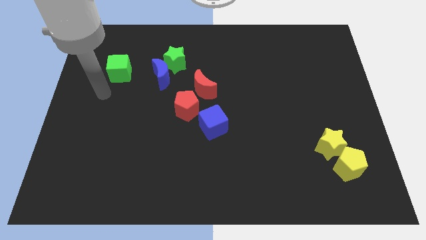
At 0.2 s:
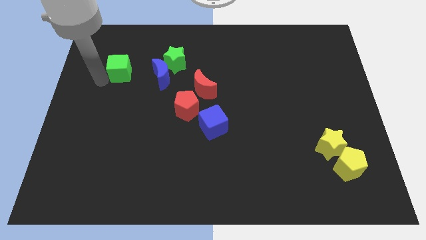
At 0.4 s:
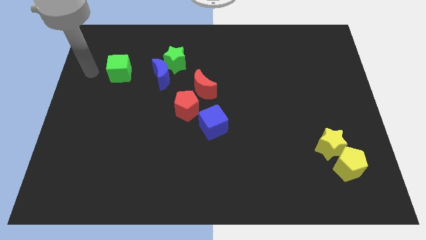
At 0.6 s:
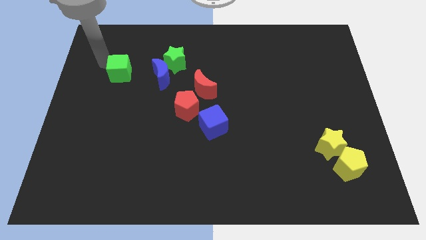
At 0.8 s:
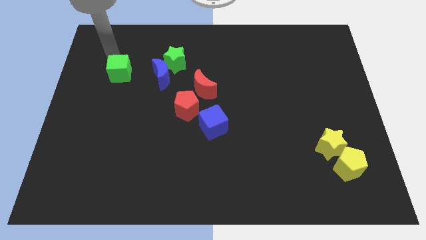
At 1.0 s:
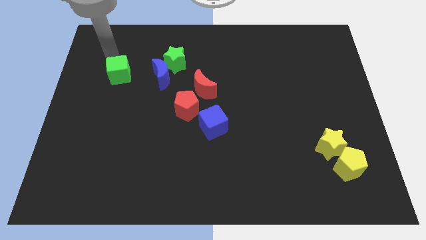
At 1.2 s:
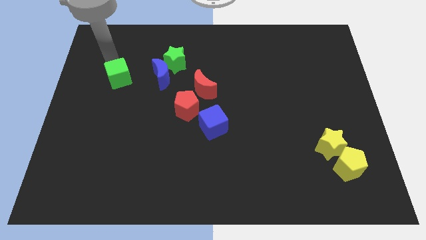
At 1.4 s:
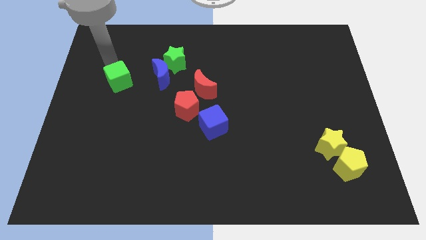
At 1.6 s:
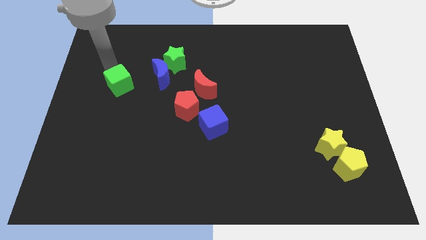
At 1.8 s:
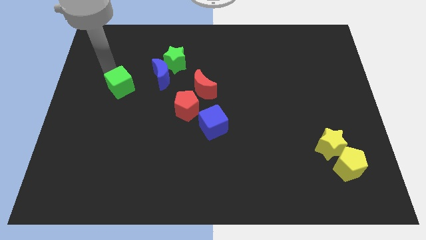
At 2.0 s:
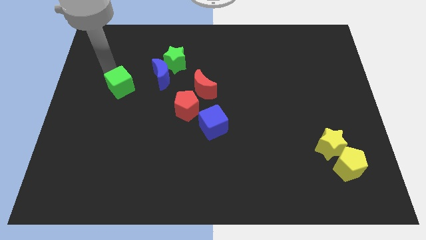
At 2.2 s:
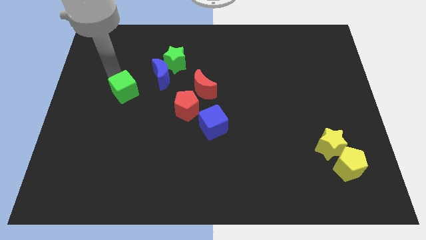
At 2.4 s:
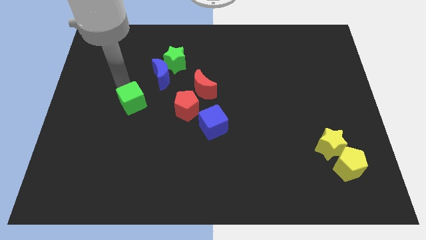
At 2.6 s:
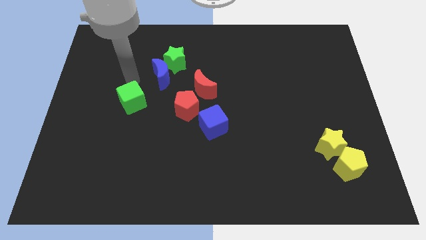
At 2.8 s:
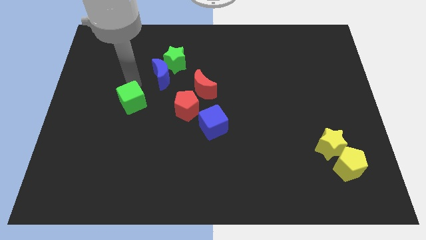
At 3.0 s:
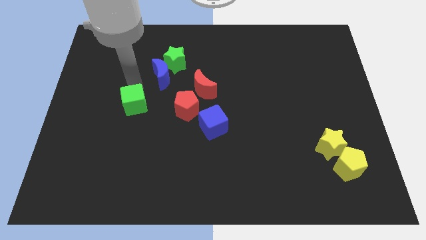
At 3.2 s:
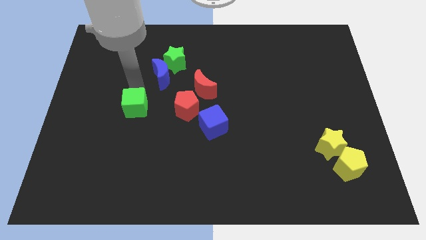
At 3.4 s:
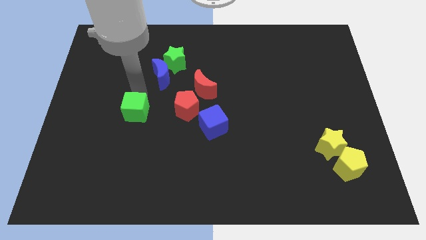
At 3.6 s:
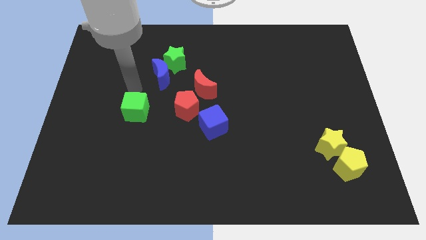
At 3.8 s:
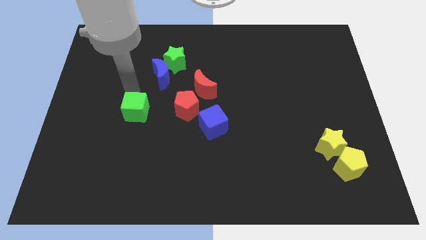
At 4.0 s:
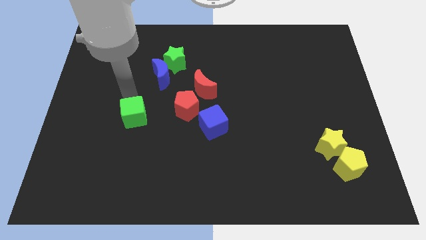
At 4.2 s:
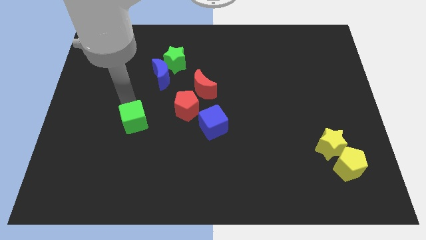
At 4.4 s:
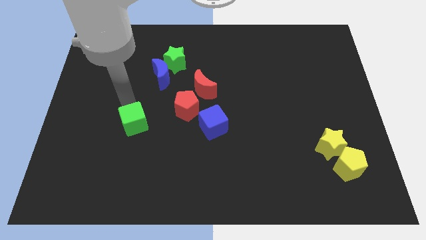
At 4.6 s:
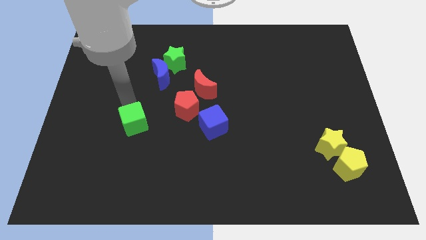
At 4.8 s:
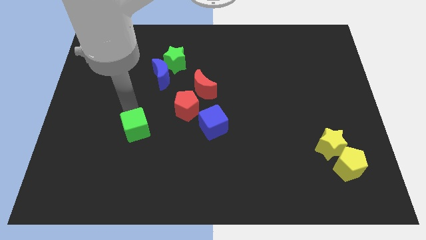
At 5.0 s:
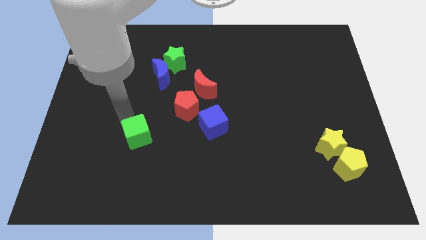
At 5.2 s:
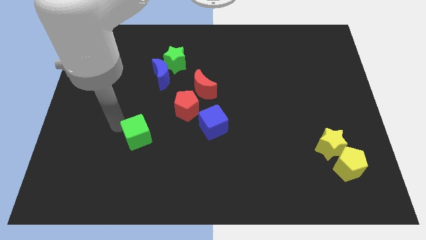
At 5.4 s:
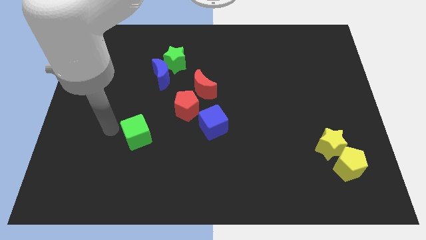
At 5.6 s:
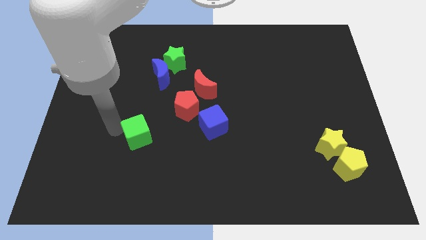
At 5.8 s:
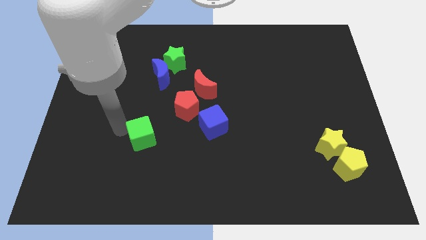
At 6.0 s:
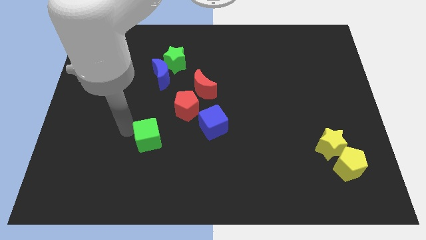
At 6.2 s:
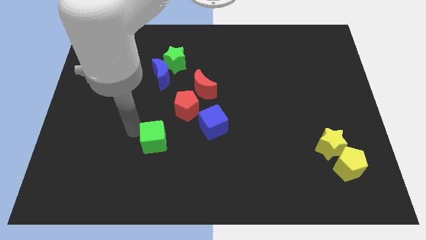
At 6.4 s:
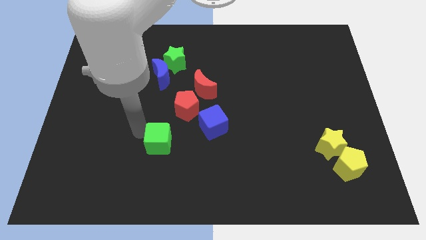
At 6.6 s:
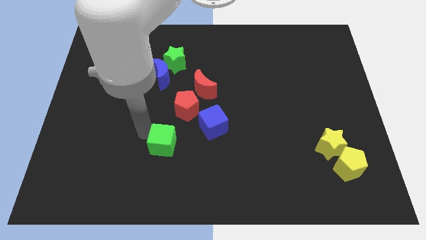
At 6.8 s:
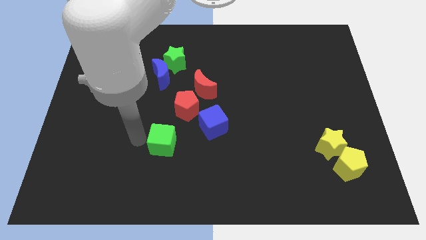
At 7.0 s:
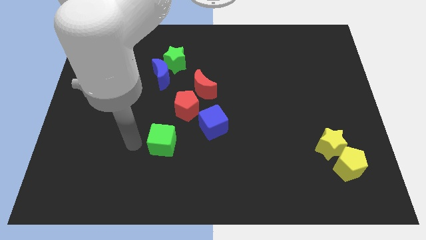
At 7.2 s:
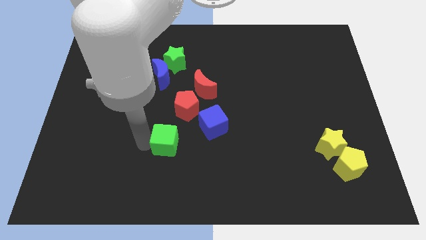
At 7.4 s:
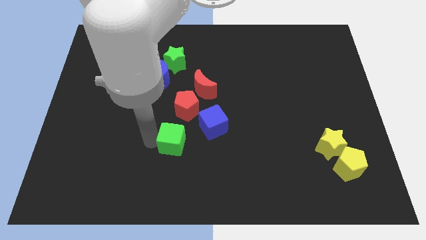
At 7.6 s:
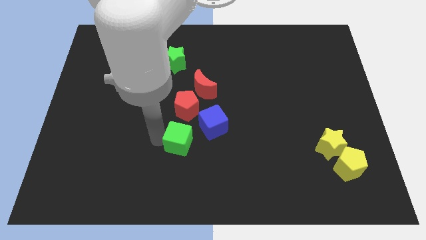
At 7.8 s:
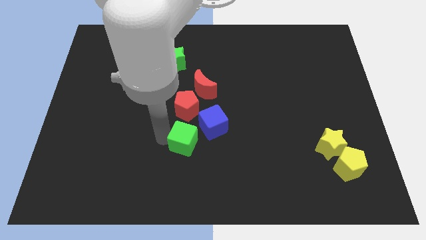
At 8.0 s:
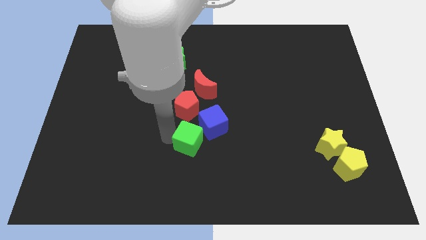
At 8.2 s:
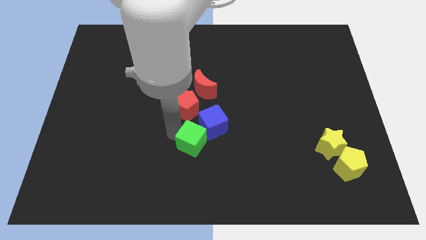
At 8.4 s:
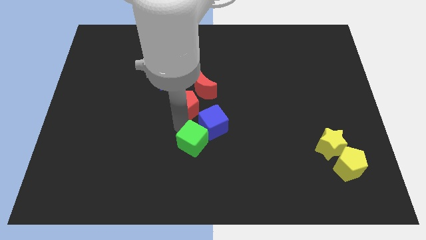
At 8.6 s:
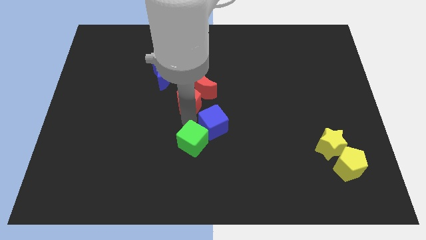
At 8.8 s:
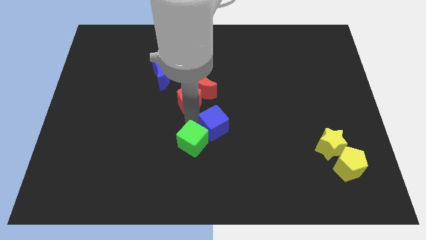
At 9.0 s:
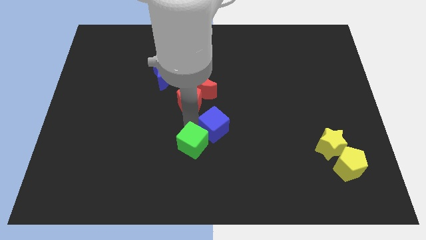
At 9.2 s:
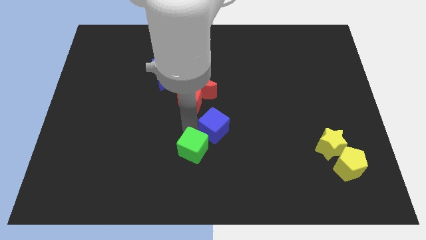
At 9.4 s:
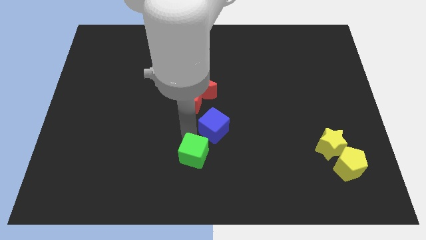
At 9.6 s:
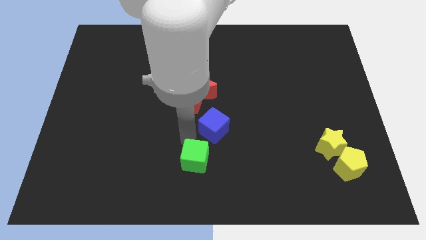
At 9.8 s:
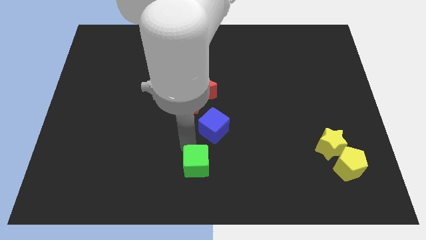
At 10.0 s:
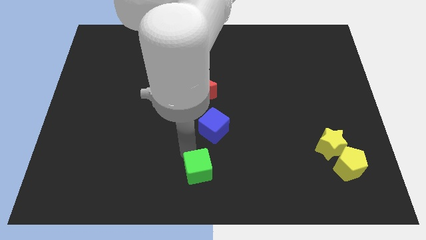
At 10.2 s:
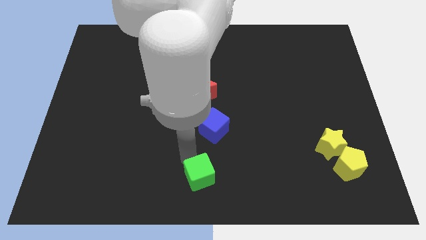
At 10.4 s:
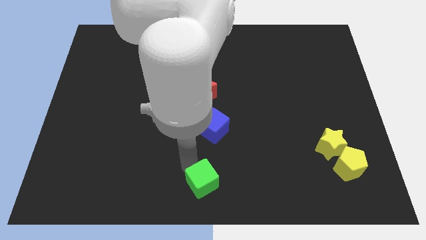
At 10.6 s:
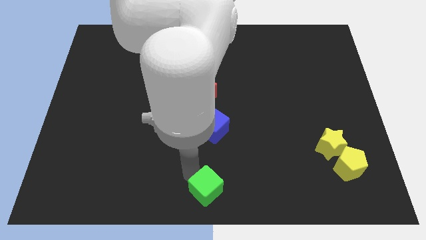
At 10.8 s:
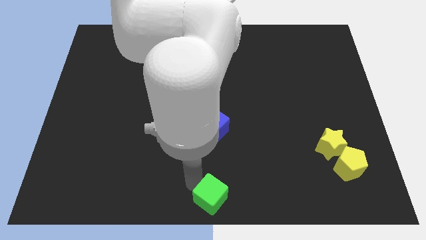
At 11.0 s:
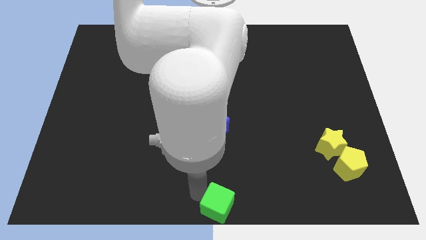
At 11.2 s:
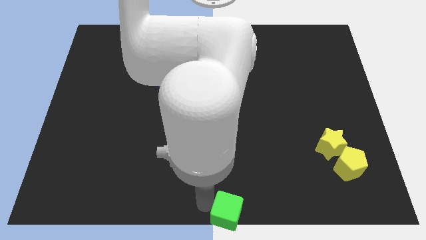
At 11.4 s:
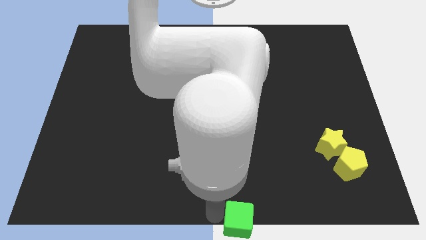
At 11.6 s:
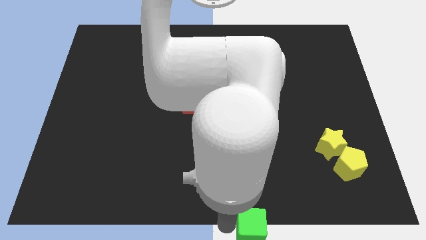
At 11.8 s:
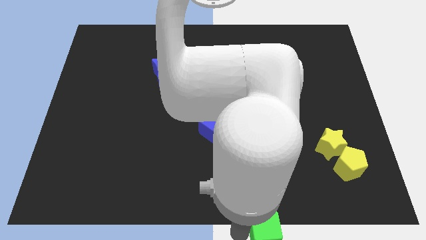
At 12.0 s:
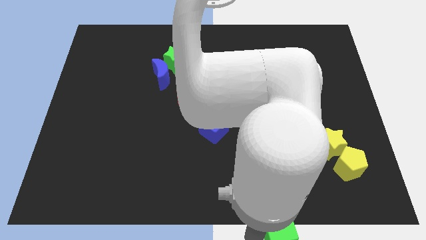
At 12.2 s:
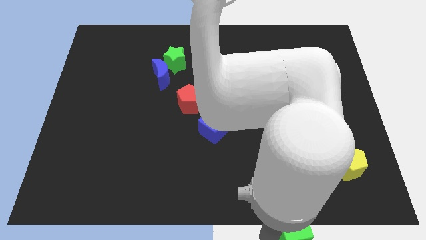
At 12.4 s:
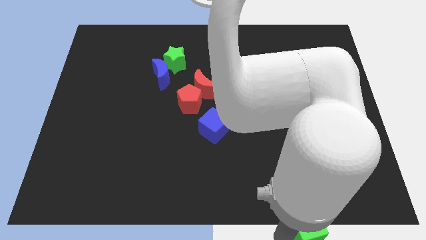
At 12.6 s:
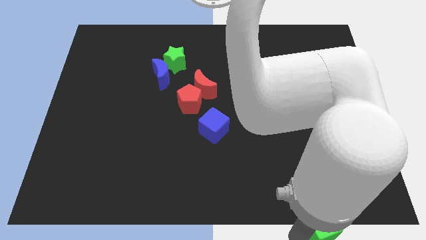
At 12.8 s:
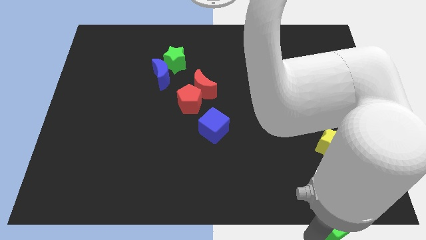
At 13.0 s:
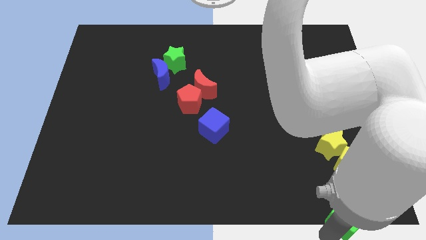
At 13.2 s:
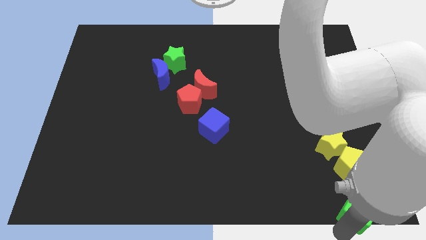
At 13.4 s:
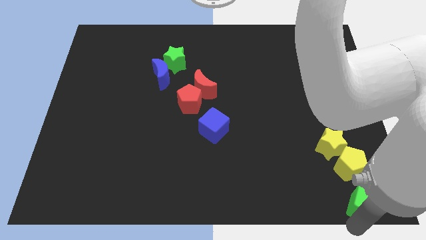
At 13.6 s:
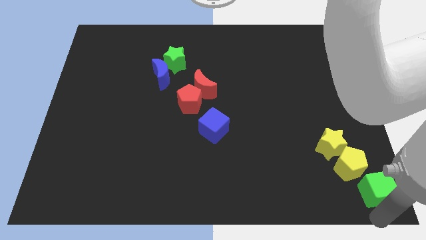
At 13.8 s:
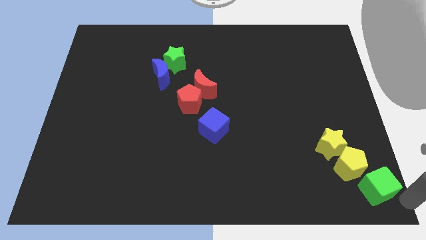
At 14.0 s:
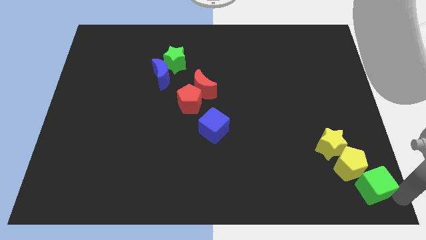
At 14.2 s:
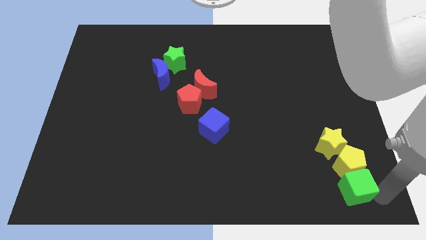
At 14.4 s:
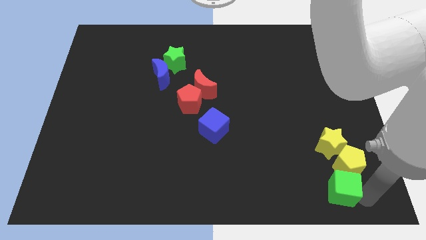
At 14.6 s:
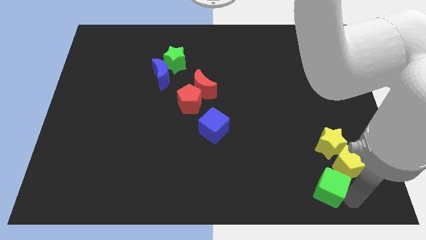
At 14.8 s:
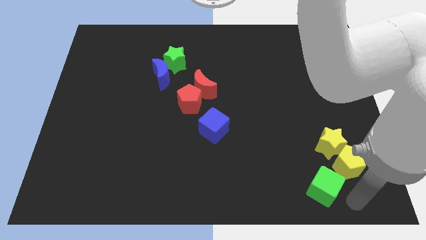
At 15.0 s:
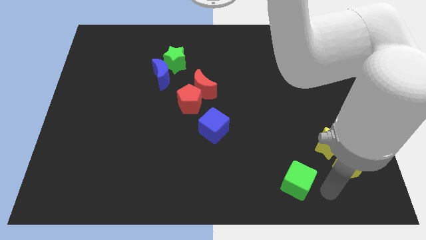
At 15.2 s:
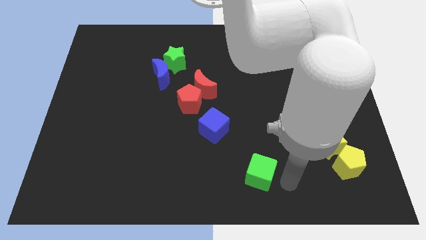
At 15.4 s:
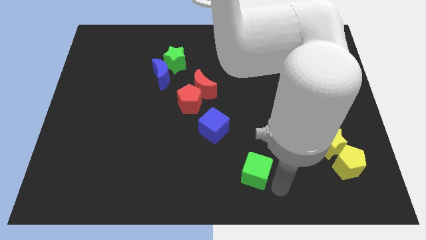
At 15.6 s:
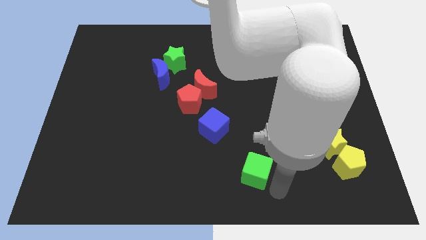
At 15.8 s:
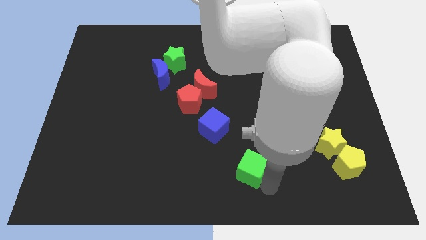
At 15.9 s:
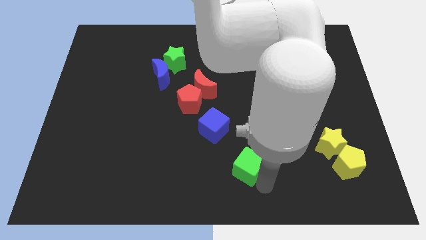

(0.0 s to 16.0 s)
slide the green cube to the bottom right side of the blue cube
